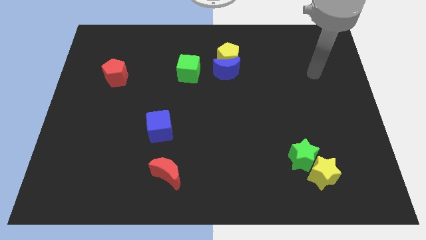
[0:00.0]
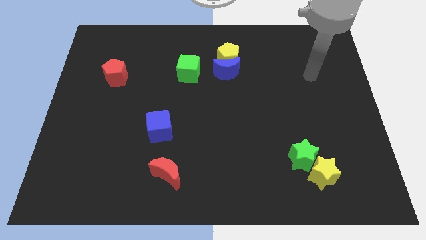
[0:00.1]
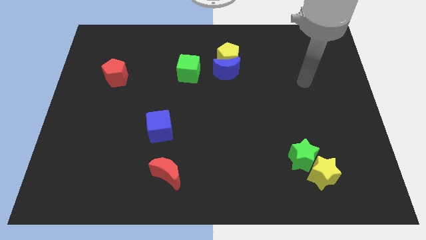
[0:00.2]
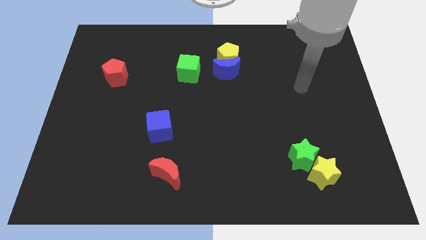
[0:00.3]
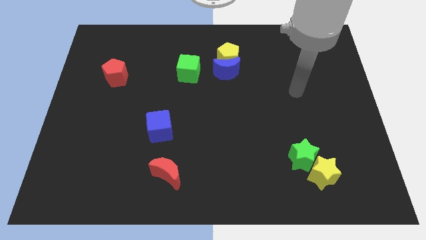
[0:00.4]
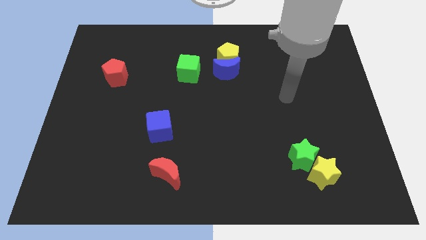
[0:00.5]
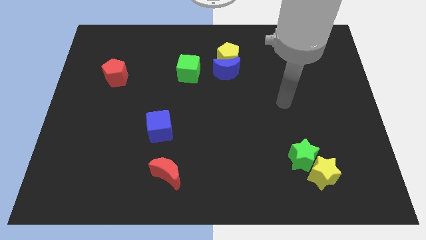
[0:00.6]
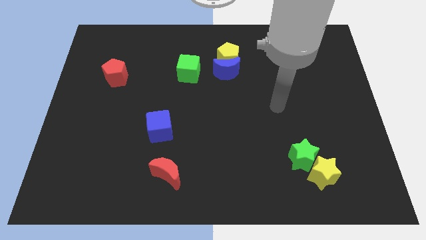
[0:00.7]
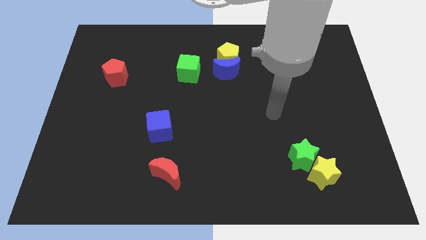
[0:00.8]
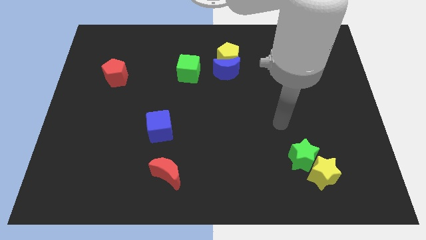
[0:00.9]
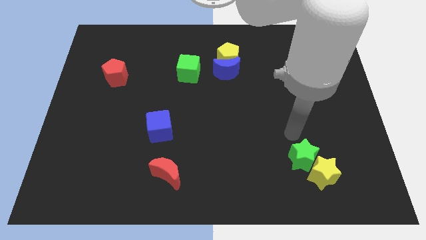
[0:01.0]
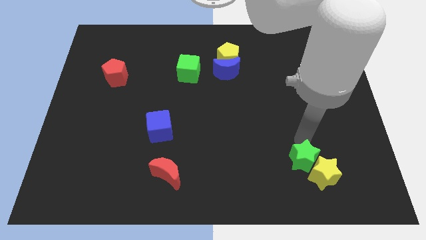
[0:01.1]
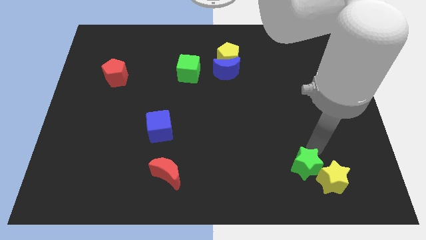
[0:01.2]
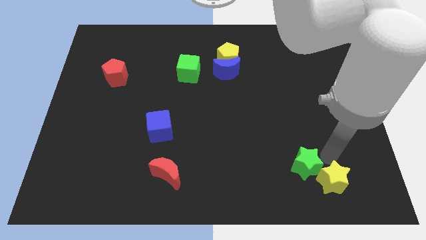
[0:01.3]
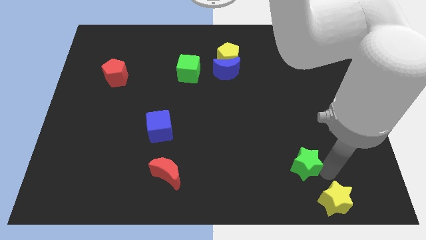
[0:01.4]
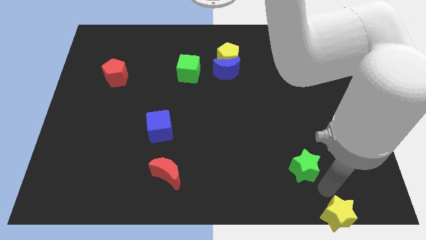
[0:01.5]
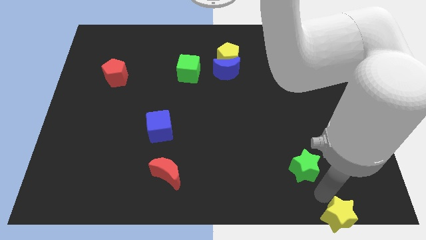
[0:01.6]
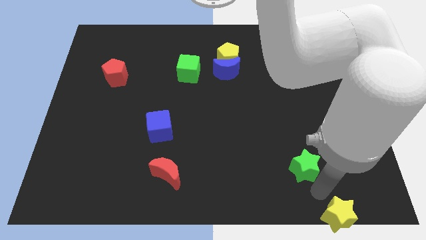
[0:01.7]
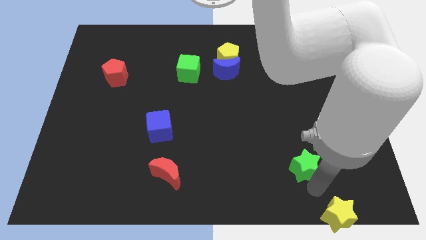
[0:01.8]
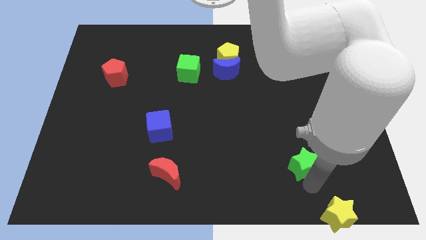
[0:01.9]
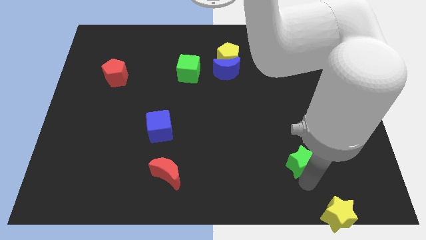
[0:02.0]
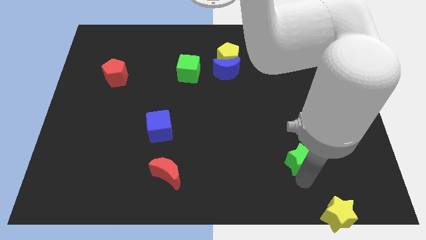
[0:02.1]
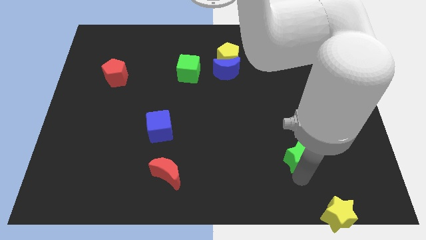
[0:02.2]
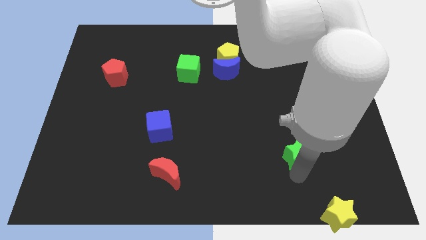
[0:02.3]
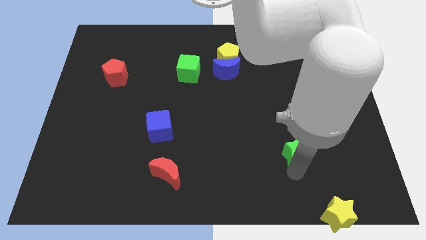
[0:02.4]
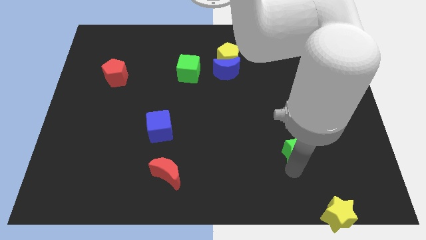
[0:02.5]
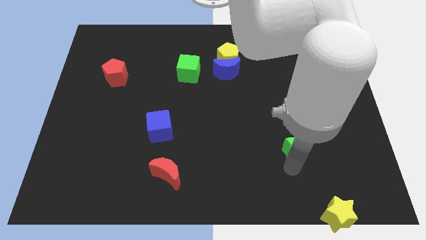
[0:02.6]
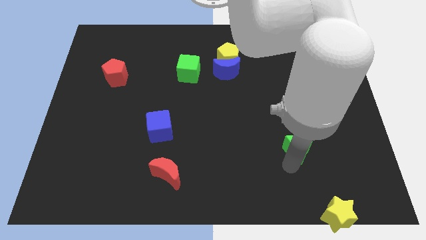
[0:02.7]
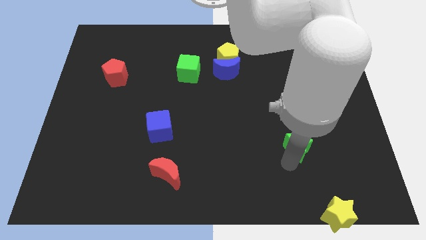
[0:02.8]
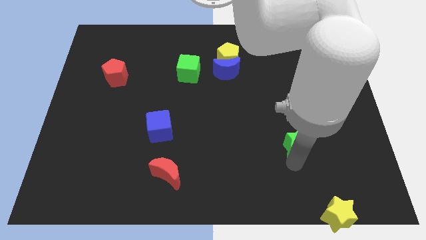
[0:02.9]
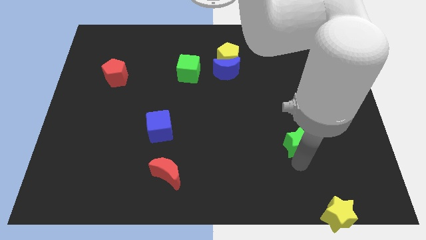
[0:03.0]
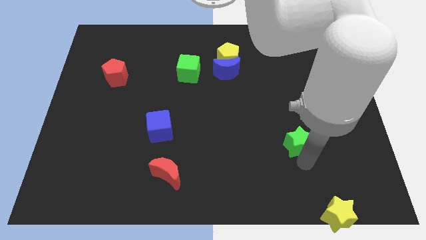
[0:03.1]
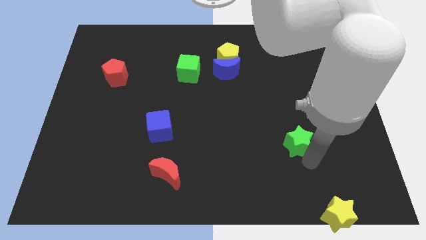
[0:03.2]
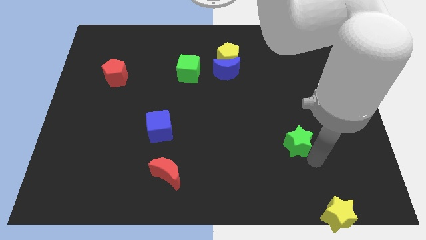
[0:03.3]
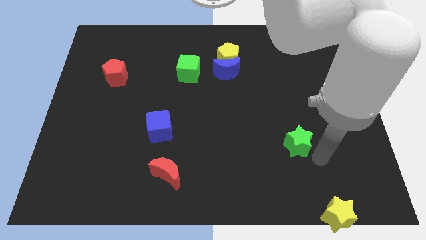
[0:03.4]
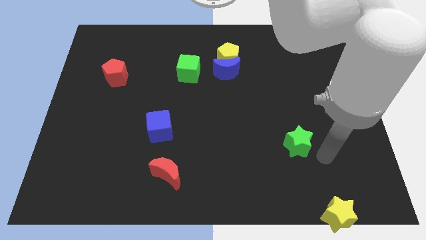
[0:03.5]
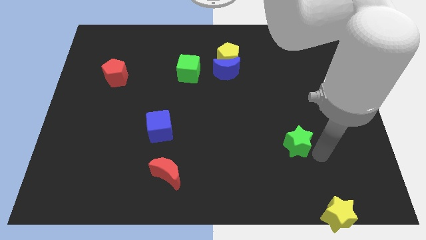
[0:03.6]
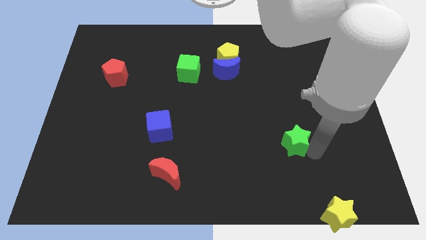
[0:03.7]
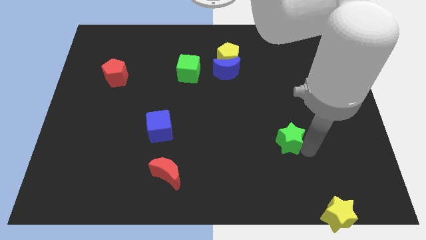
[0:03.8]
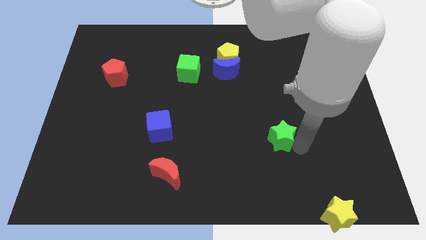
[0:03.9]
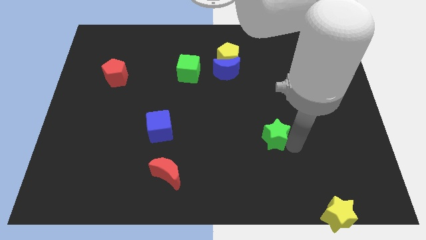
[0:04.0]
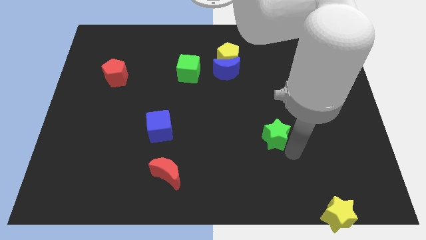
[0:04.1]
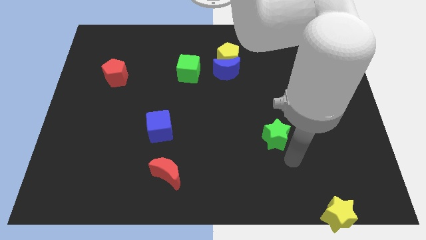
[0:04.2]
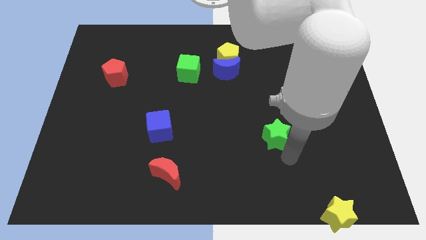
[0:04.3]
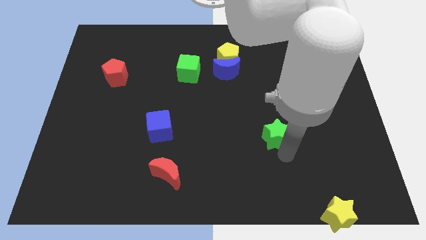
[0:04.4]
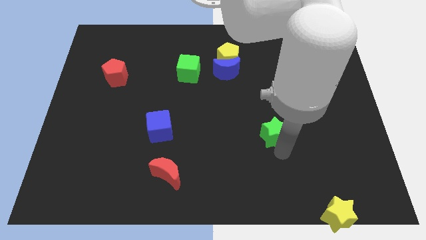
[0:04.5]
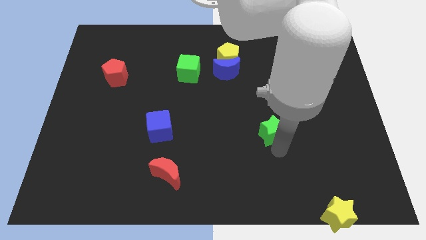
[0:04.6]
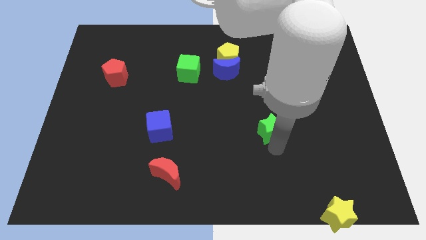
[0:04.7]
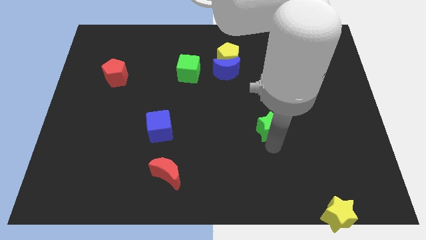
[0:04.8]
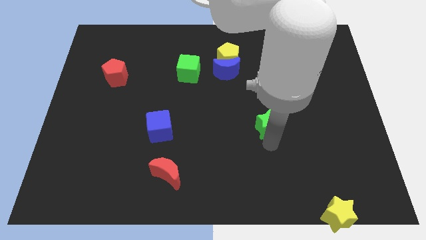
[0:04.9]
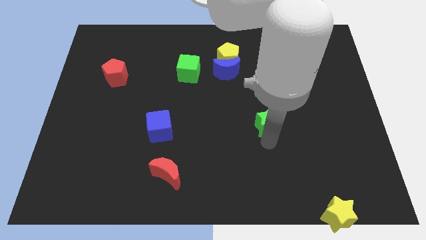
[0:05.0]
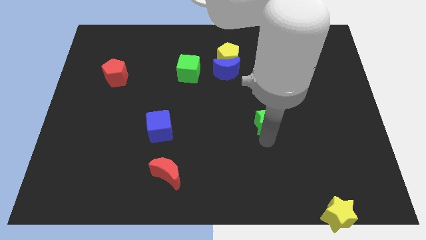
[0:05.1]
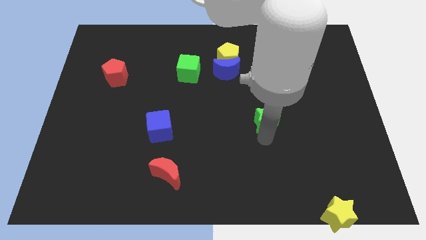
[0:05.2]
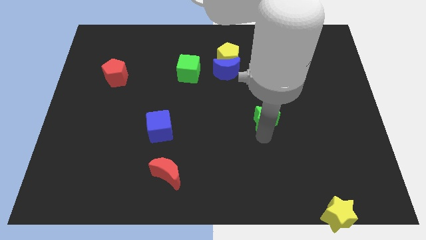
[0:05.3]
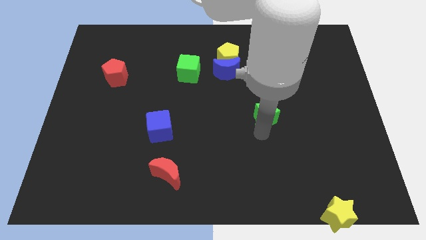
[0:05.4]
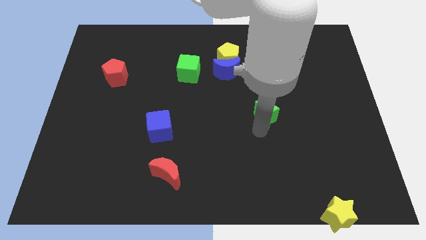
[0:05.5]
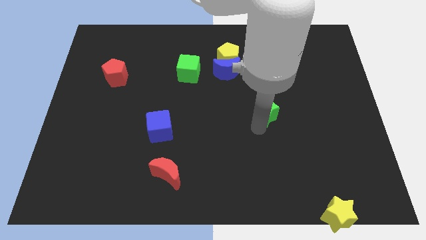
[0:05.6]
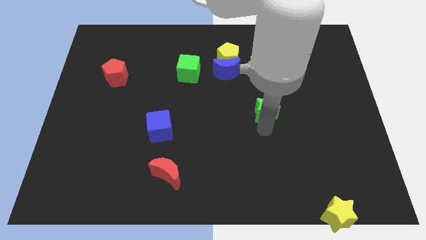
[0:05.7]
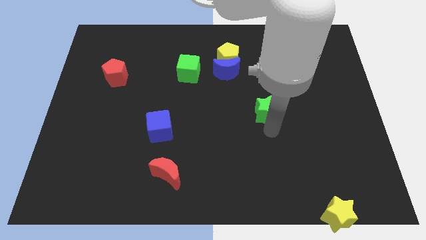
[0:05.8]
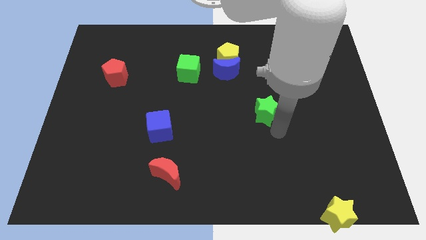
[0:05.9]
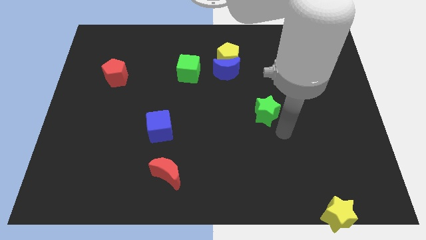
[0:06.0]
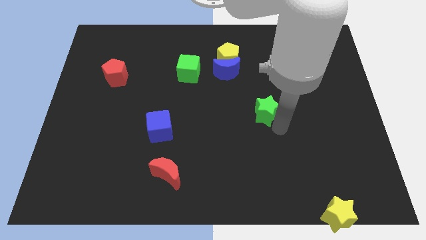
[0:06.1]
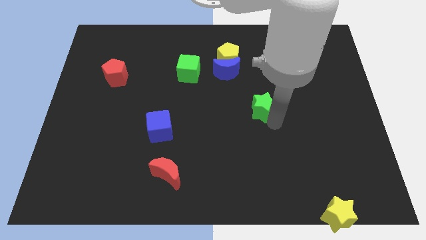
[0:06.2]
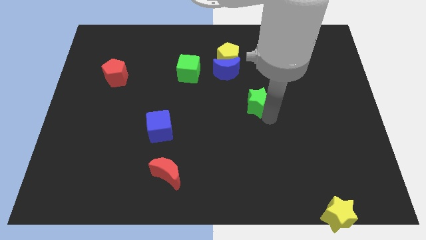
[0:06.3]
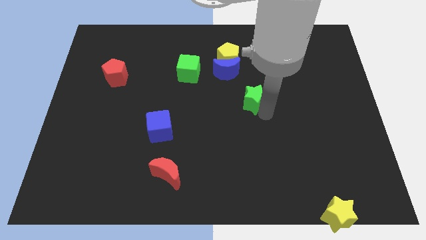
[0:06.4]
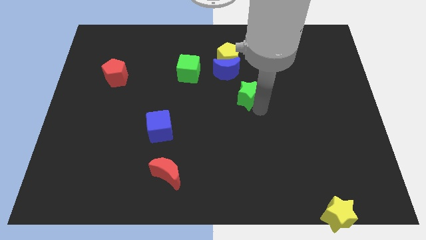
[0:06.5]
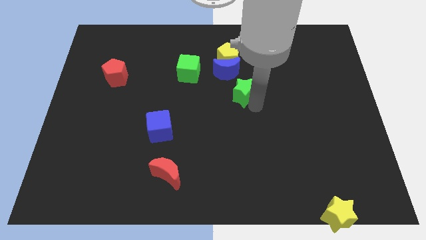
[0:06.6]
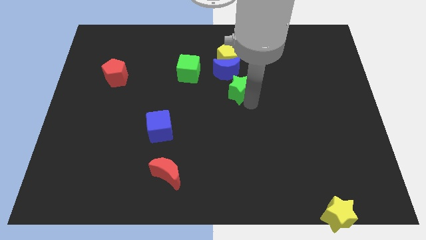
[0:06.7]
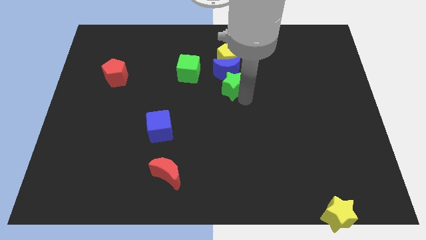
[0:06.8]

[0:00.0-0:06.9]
slide the green star next to the blue moon
